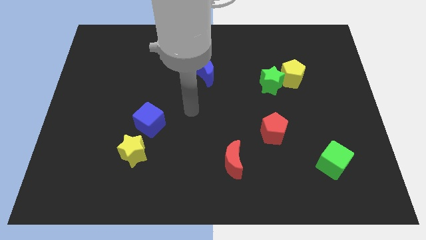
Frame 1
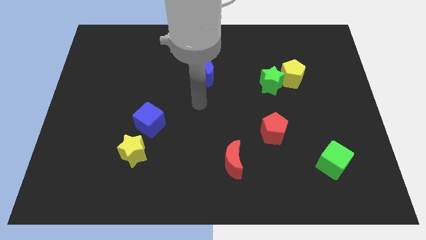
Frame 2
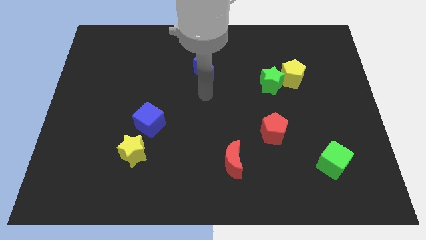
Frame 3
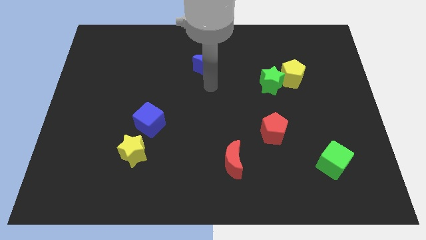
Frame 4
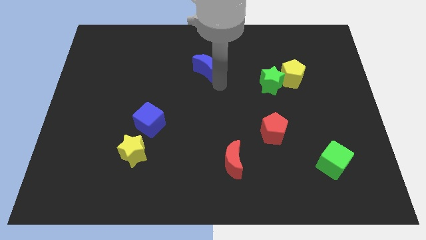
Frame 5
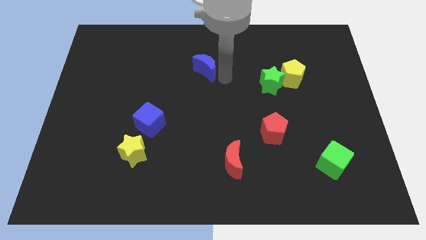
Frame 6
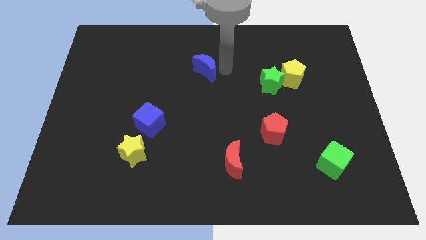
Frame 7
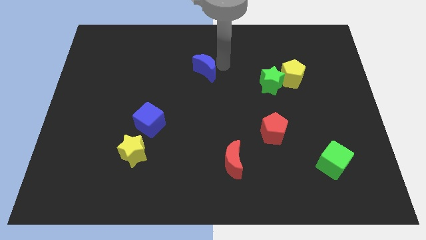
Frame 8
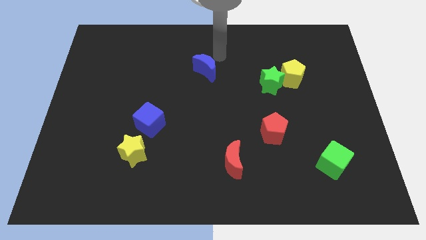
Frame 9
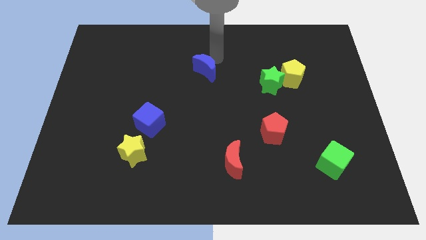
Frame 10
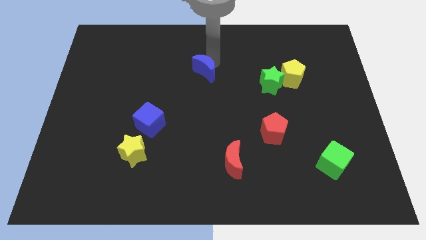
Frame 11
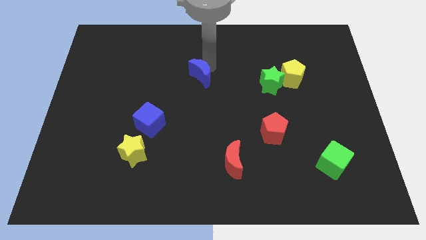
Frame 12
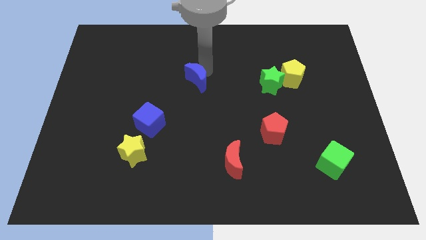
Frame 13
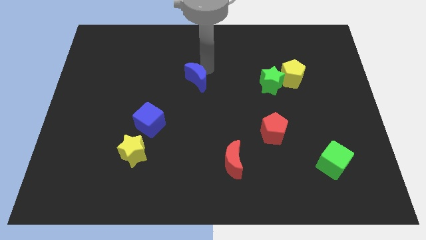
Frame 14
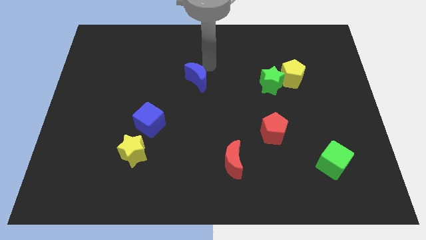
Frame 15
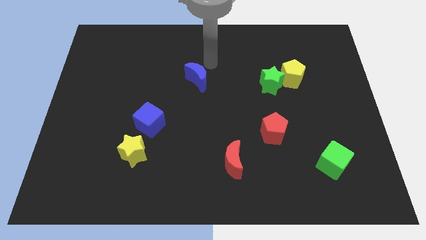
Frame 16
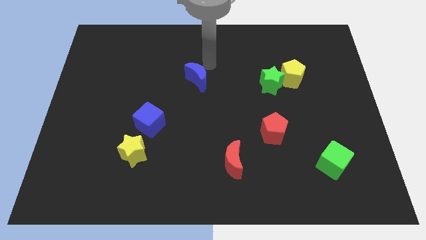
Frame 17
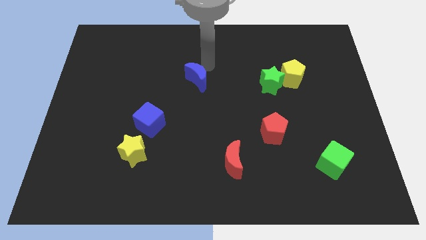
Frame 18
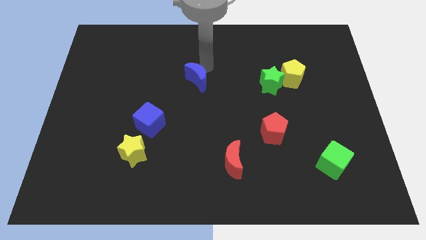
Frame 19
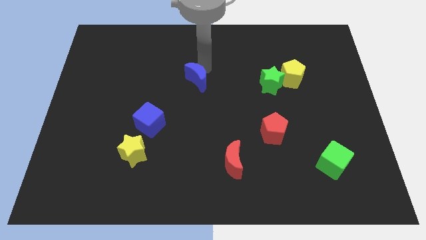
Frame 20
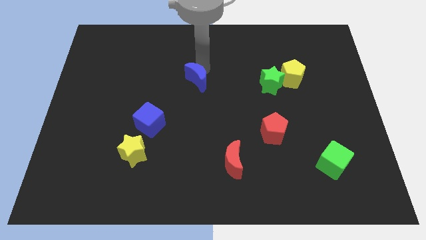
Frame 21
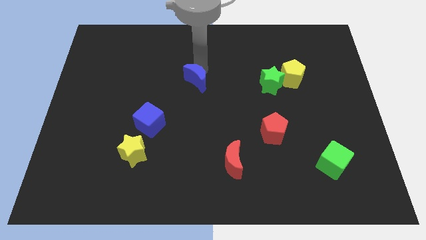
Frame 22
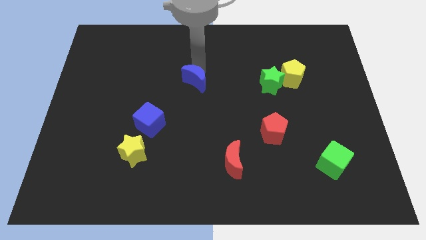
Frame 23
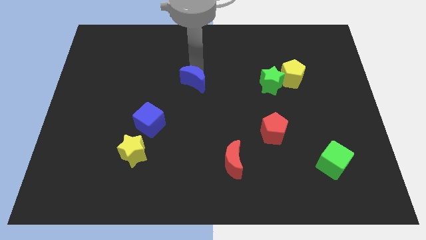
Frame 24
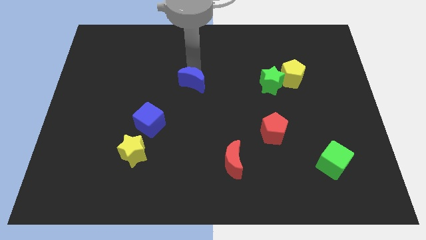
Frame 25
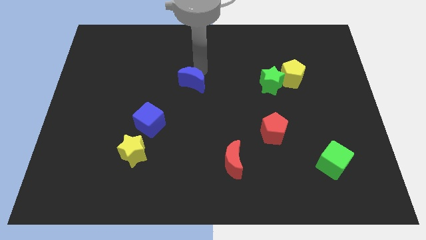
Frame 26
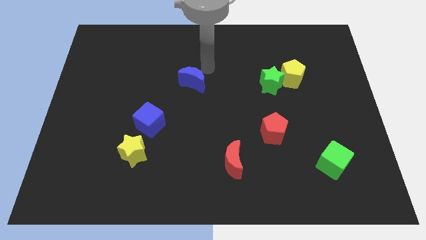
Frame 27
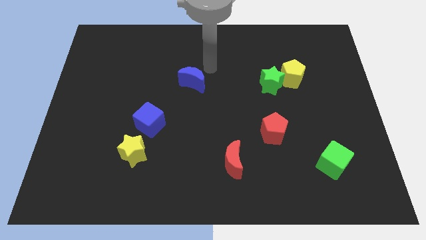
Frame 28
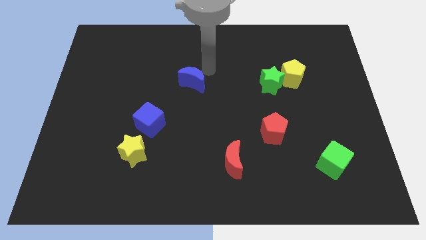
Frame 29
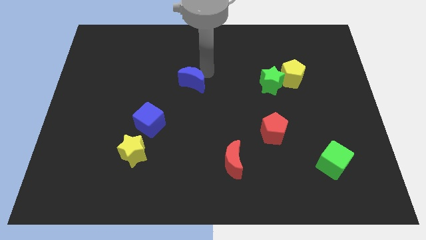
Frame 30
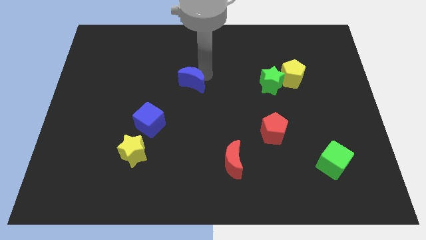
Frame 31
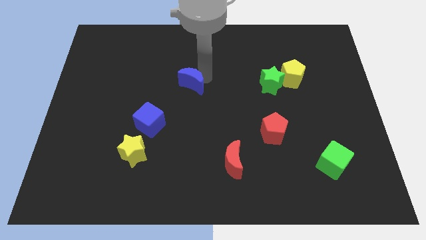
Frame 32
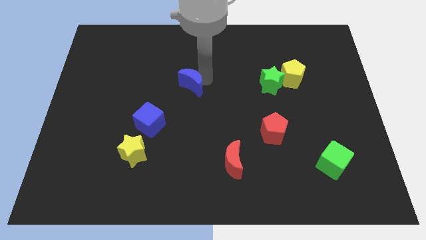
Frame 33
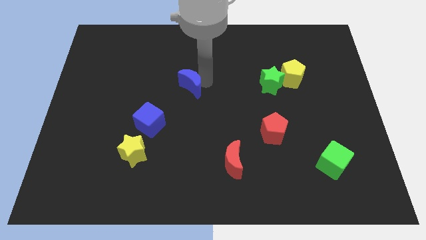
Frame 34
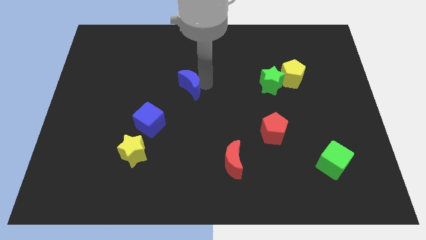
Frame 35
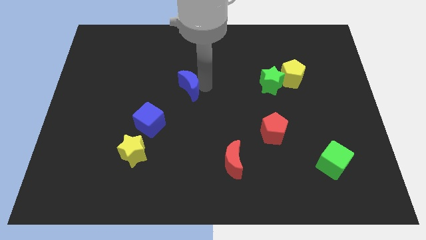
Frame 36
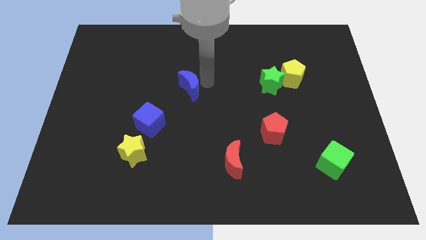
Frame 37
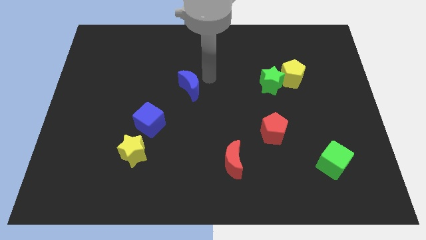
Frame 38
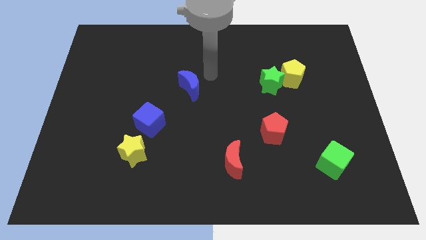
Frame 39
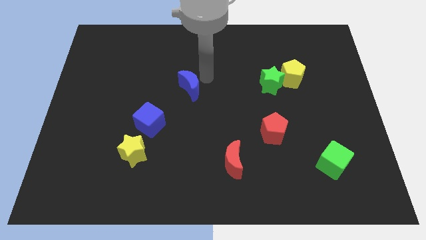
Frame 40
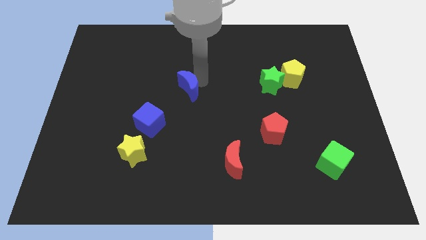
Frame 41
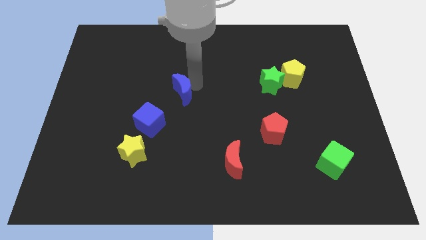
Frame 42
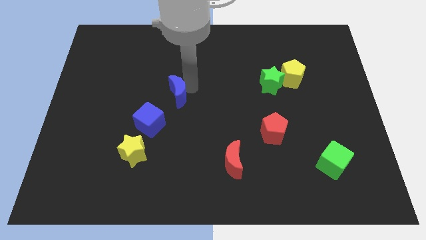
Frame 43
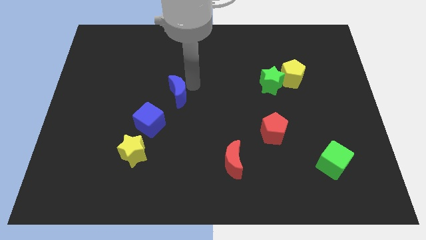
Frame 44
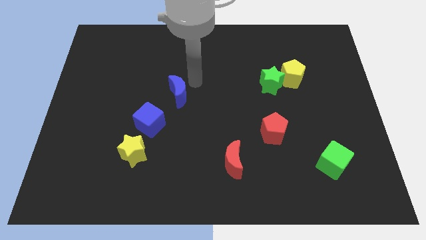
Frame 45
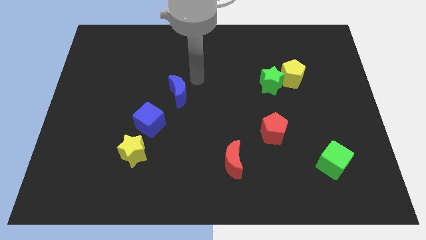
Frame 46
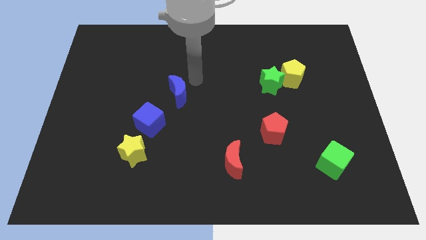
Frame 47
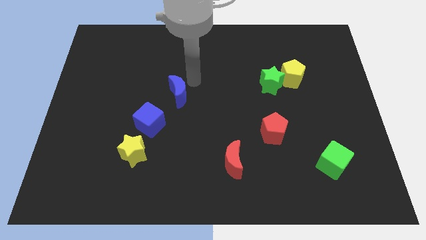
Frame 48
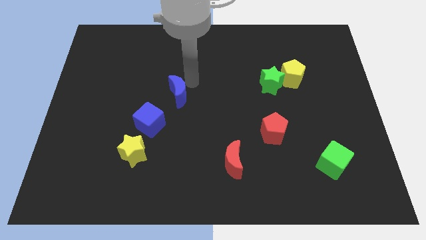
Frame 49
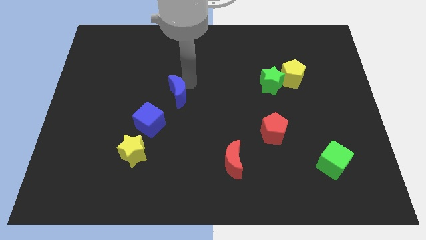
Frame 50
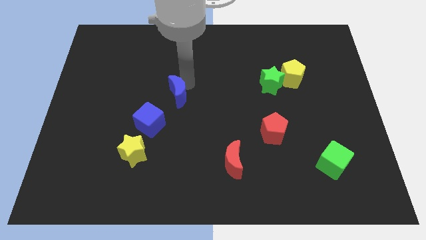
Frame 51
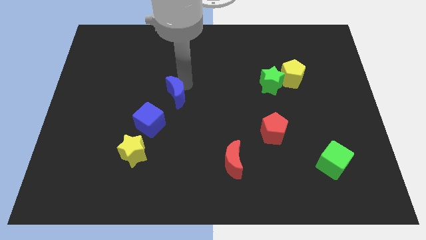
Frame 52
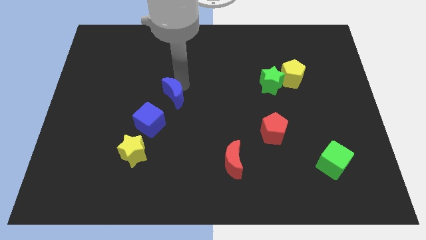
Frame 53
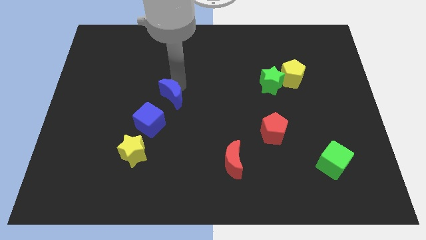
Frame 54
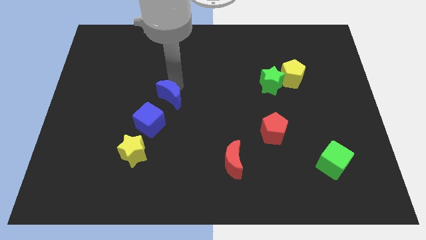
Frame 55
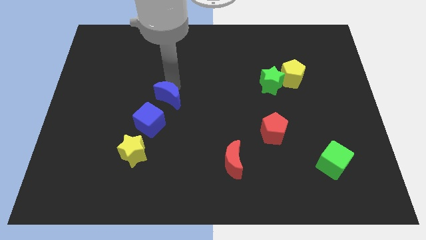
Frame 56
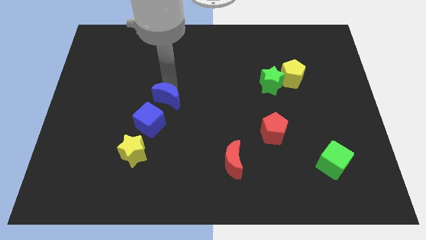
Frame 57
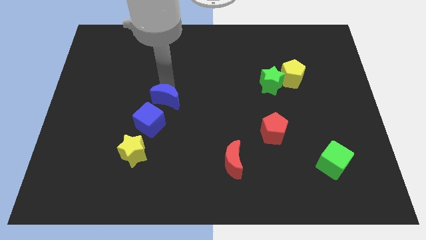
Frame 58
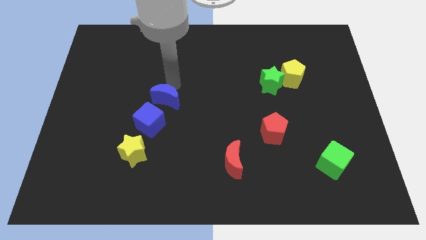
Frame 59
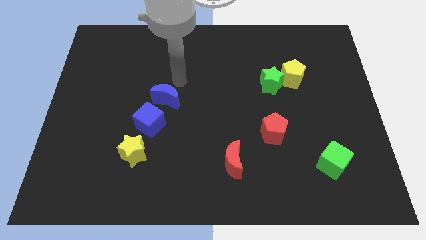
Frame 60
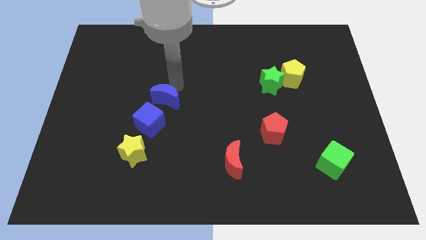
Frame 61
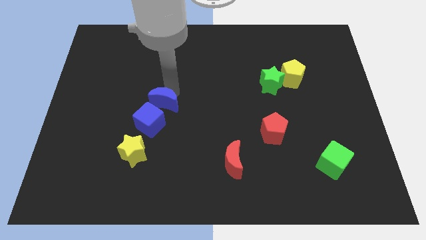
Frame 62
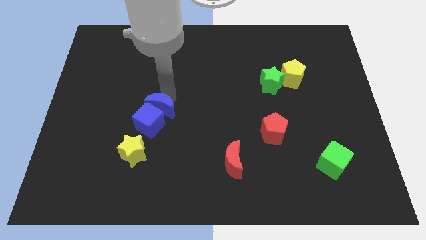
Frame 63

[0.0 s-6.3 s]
push the blue moon to the blue cube

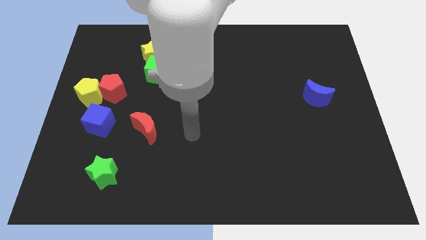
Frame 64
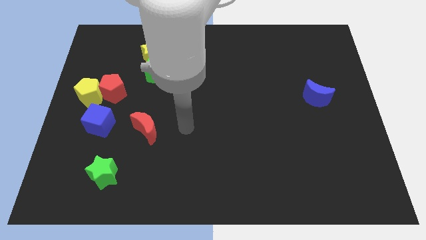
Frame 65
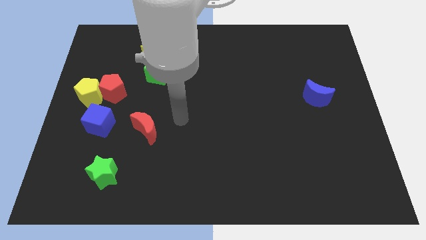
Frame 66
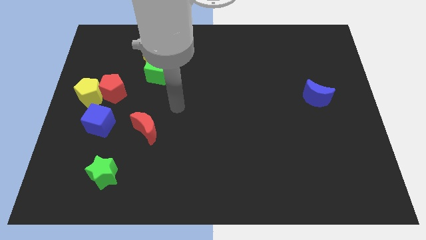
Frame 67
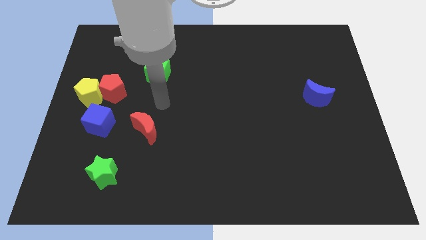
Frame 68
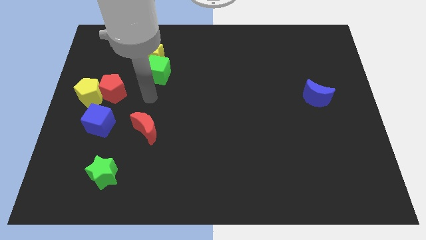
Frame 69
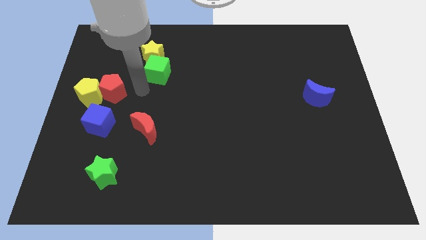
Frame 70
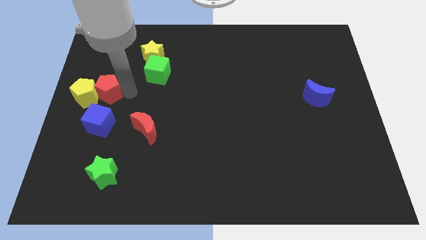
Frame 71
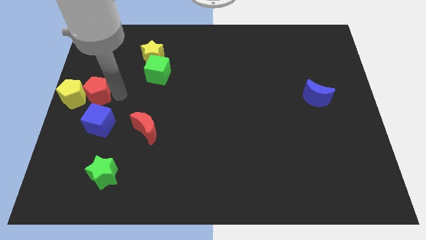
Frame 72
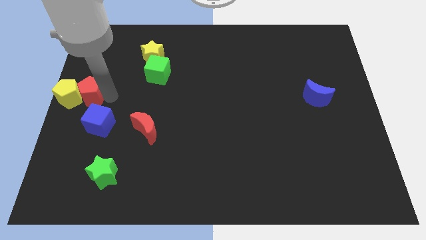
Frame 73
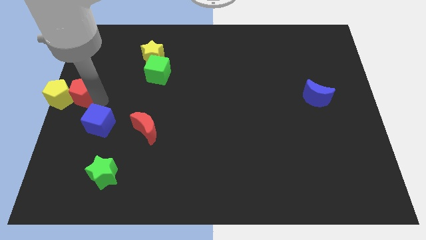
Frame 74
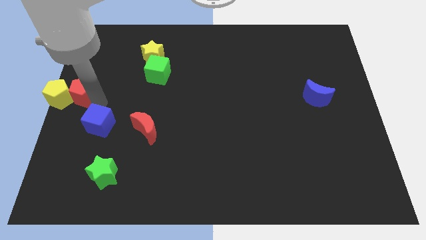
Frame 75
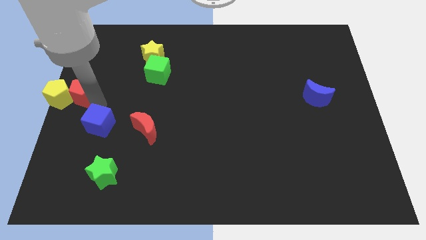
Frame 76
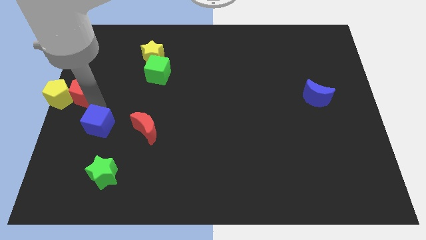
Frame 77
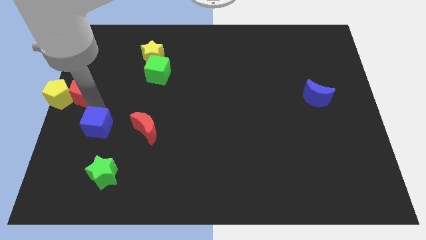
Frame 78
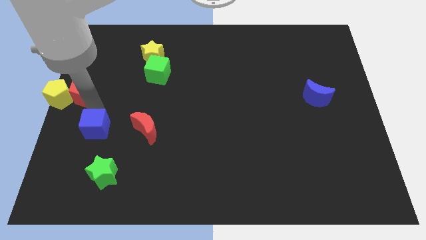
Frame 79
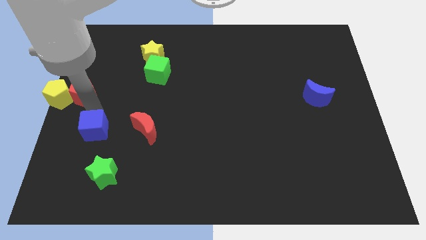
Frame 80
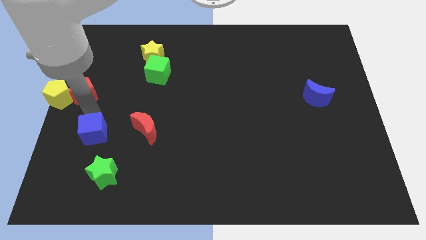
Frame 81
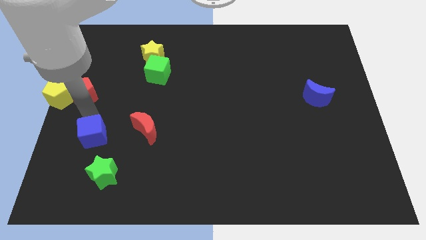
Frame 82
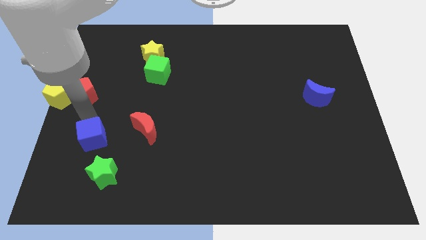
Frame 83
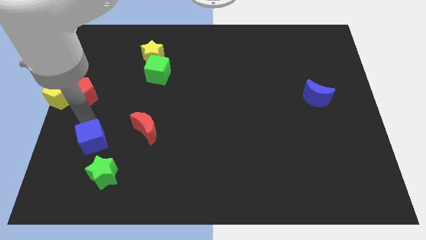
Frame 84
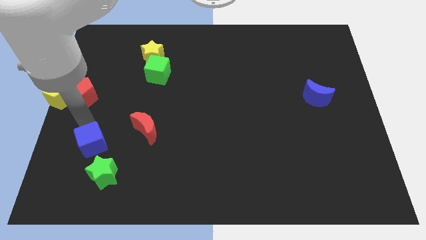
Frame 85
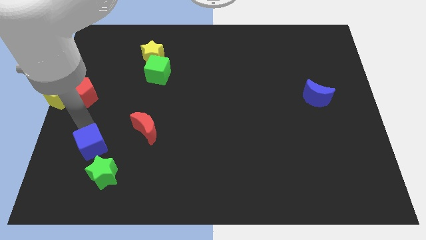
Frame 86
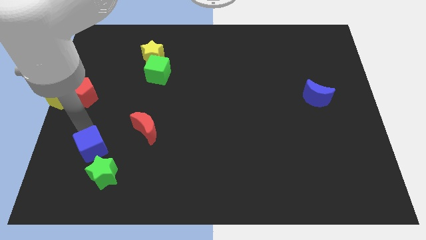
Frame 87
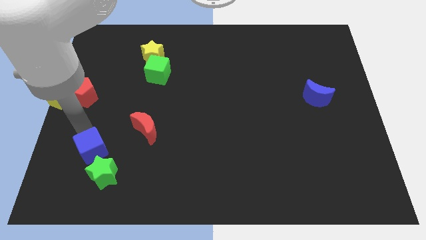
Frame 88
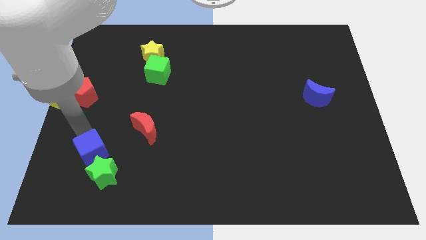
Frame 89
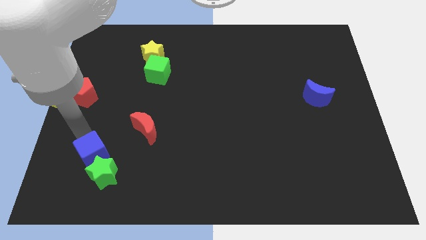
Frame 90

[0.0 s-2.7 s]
slide the blue cube next to the green star
